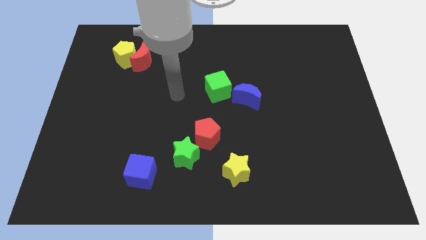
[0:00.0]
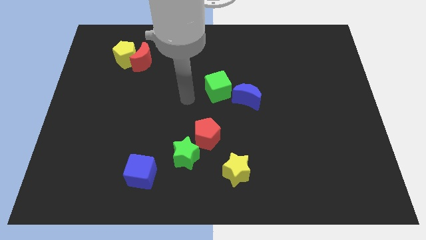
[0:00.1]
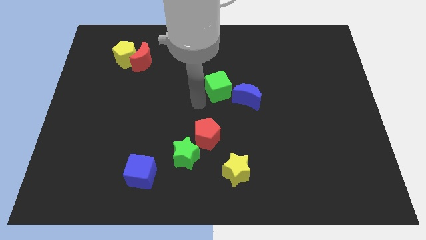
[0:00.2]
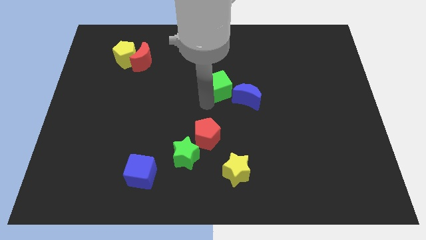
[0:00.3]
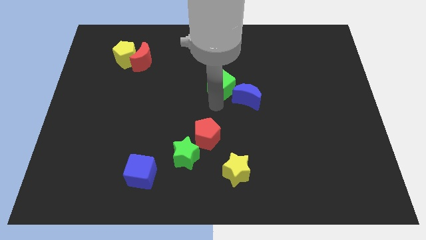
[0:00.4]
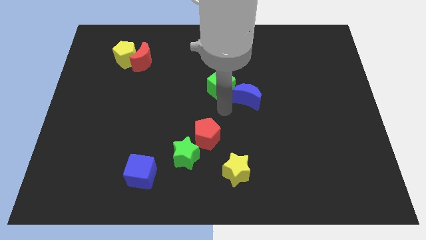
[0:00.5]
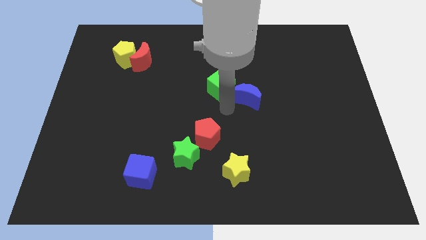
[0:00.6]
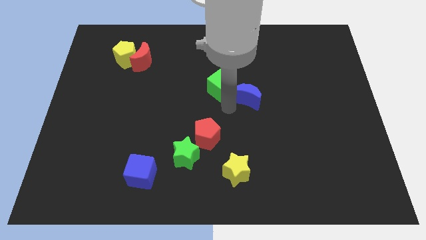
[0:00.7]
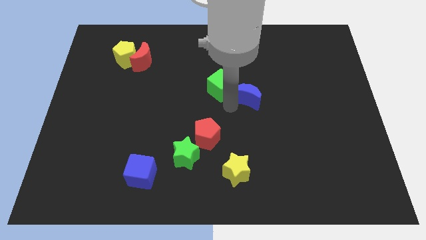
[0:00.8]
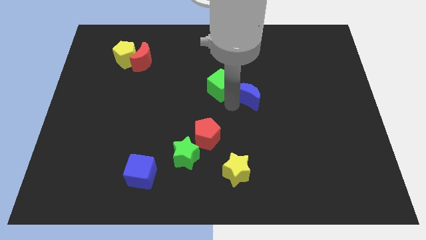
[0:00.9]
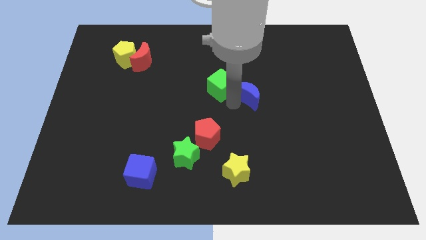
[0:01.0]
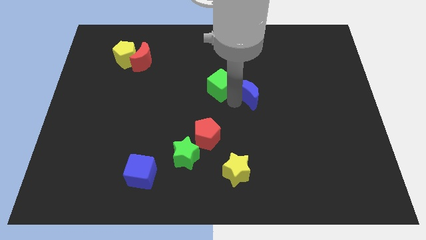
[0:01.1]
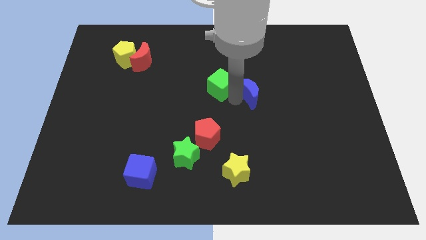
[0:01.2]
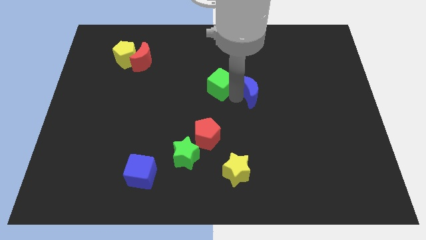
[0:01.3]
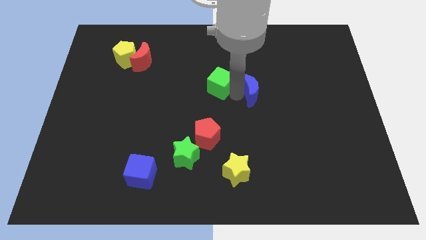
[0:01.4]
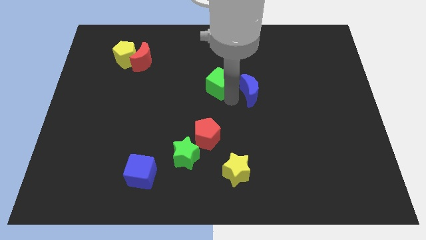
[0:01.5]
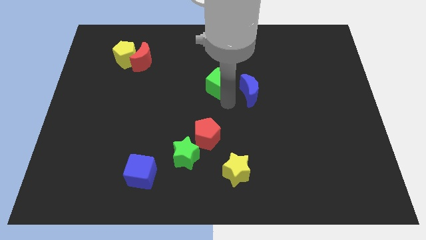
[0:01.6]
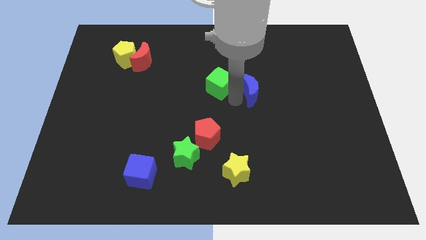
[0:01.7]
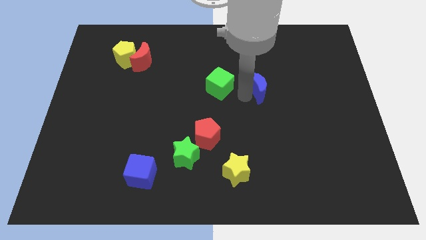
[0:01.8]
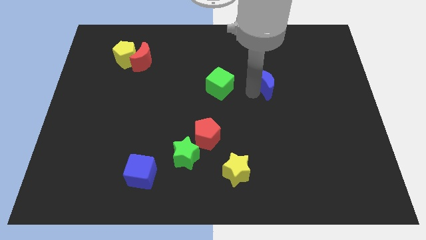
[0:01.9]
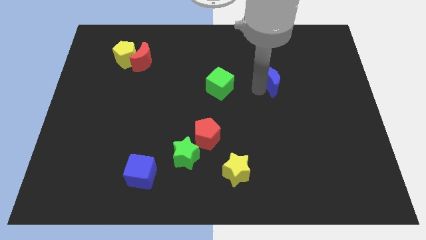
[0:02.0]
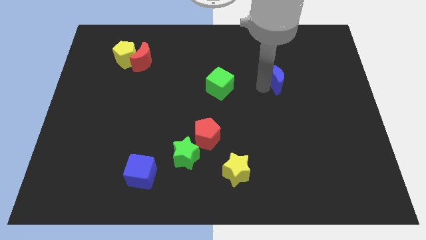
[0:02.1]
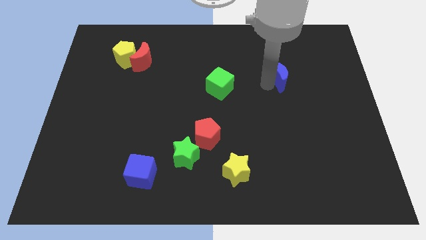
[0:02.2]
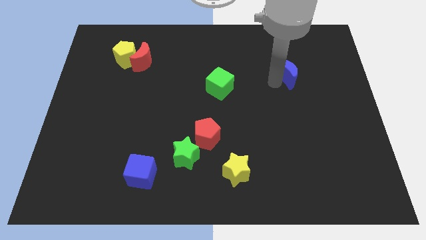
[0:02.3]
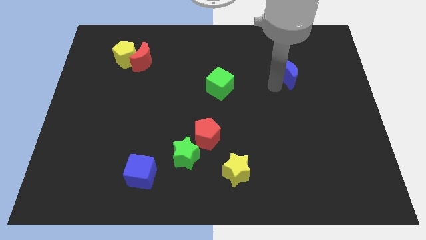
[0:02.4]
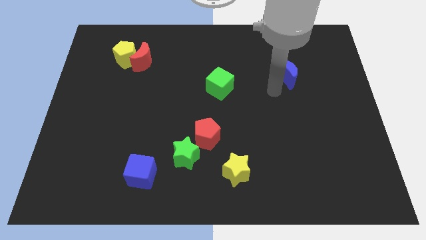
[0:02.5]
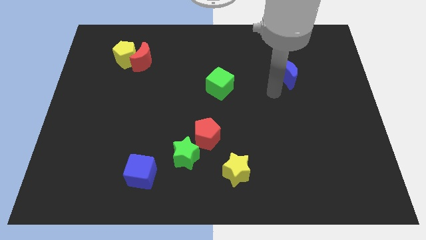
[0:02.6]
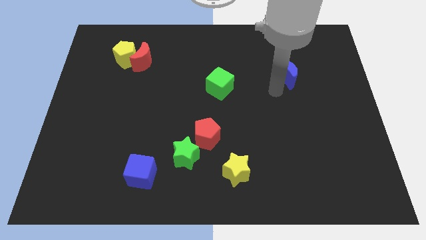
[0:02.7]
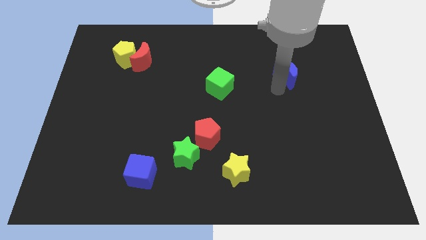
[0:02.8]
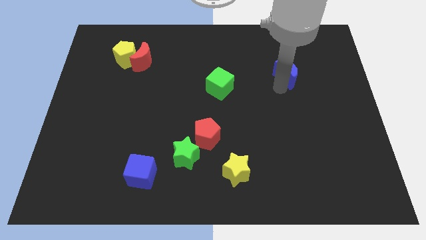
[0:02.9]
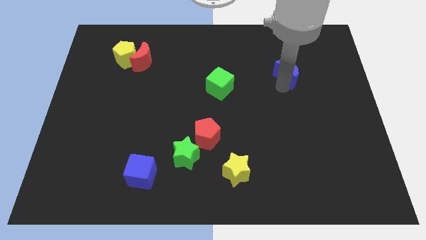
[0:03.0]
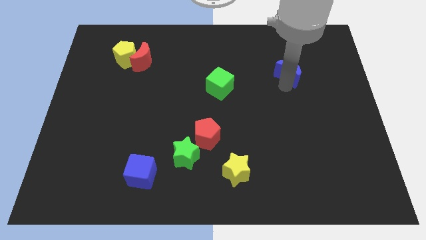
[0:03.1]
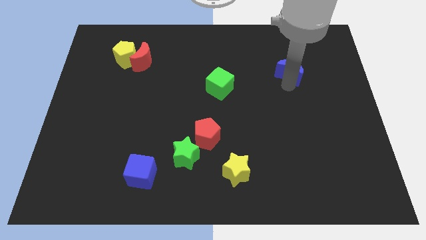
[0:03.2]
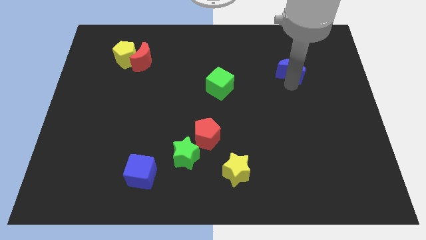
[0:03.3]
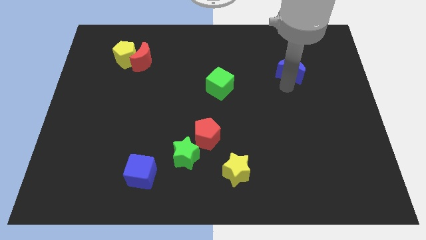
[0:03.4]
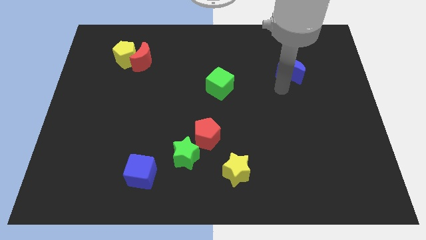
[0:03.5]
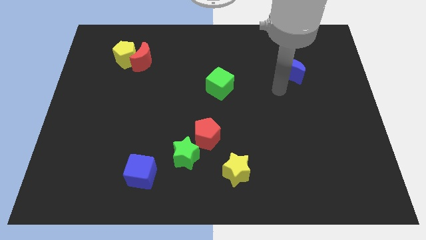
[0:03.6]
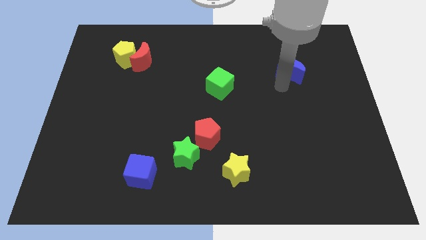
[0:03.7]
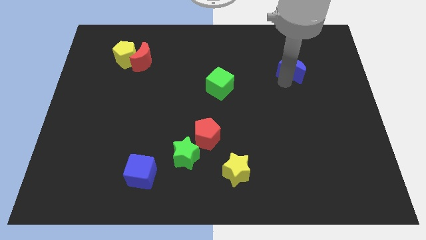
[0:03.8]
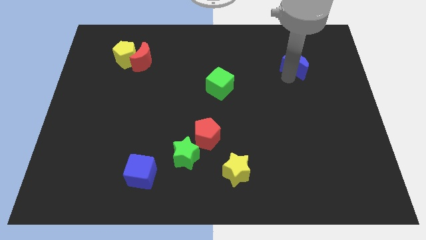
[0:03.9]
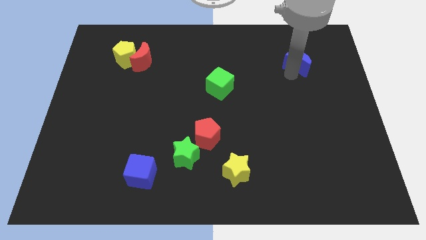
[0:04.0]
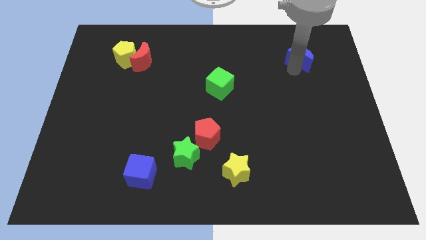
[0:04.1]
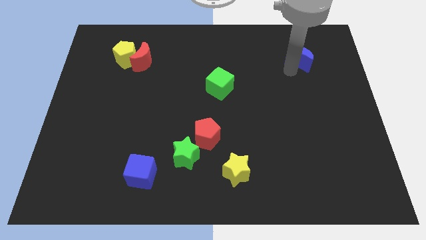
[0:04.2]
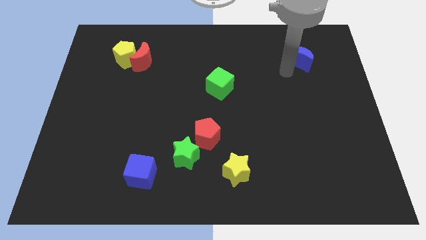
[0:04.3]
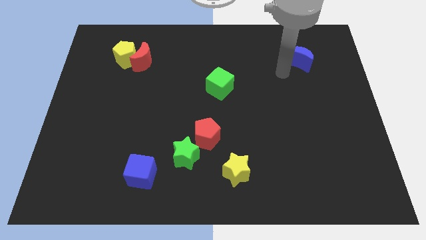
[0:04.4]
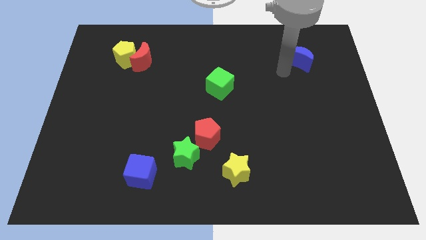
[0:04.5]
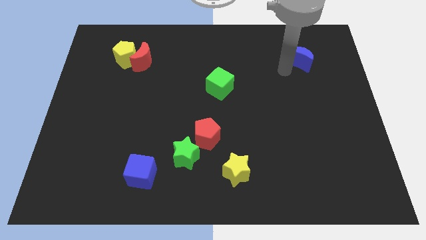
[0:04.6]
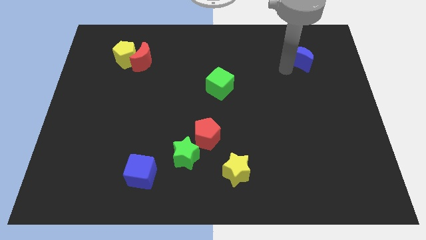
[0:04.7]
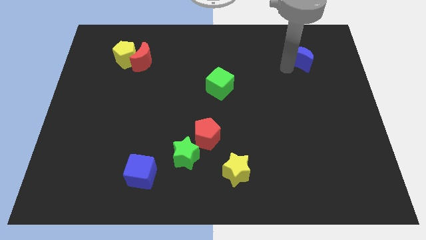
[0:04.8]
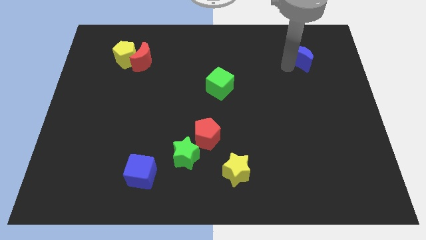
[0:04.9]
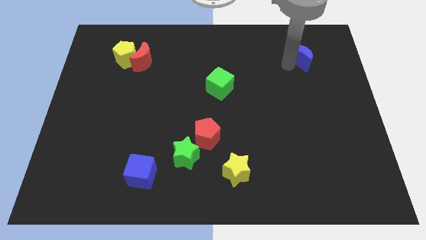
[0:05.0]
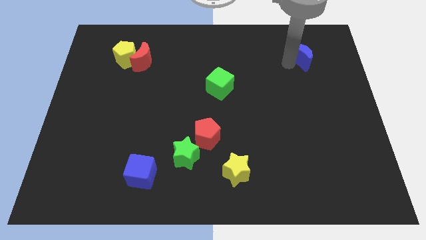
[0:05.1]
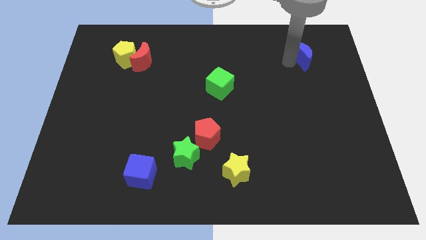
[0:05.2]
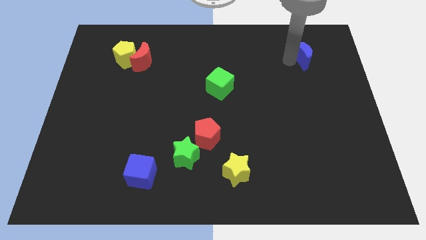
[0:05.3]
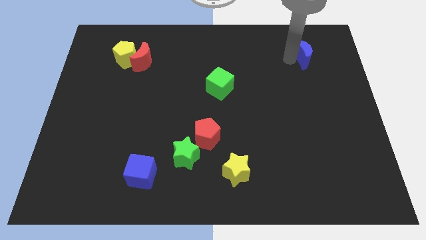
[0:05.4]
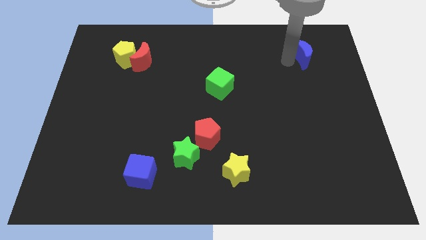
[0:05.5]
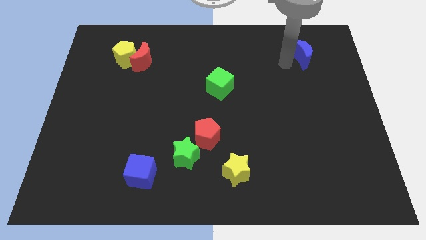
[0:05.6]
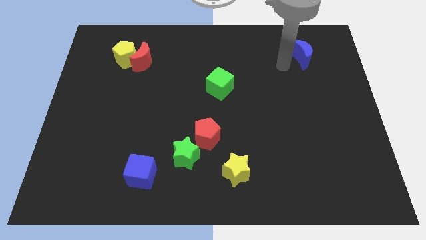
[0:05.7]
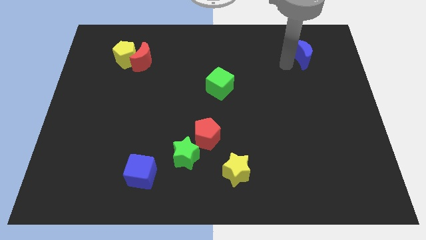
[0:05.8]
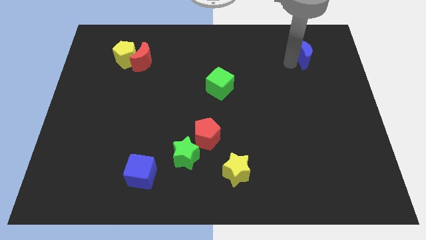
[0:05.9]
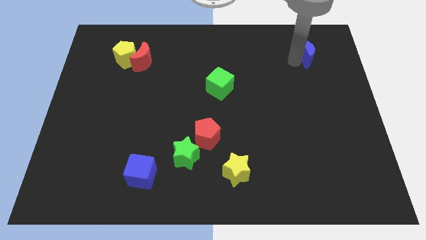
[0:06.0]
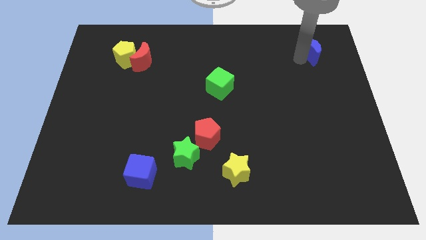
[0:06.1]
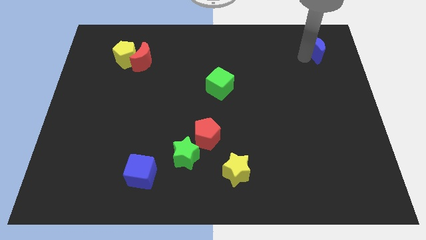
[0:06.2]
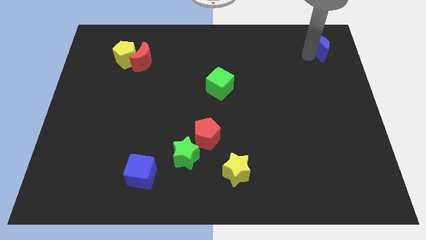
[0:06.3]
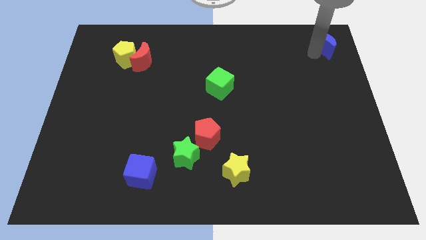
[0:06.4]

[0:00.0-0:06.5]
push the blue moon to the top right corner

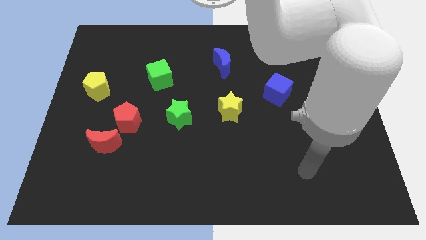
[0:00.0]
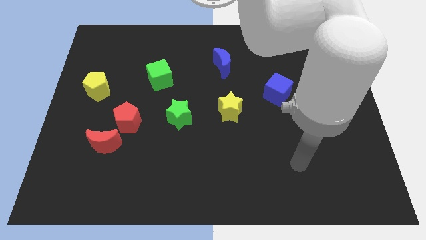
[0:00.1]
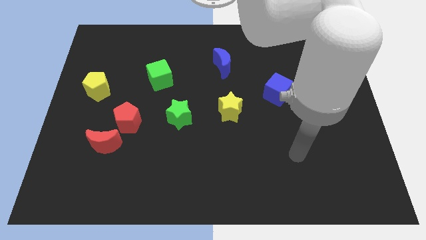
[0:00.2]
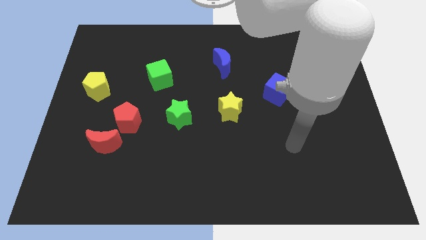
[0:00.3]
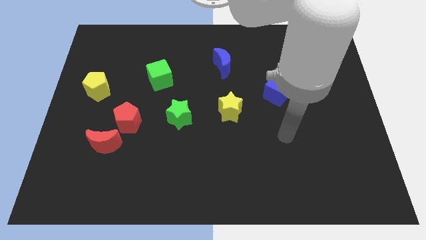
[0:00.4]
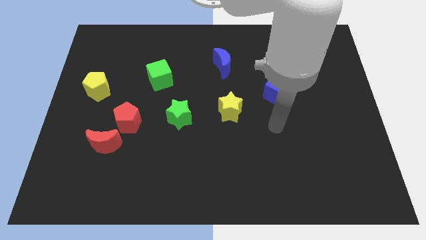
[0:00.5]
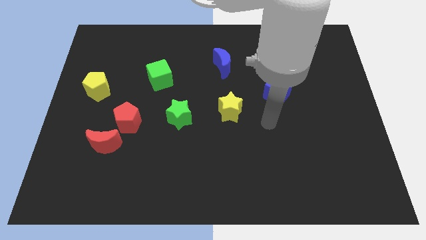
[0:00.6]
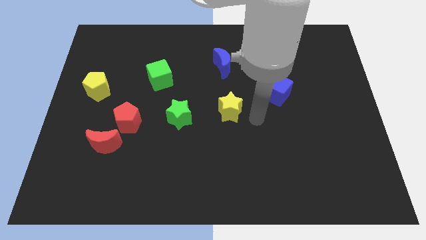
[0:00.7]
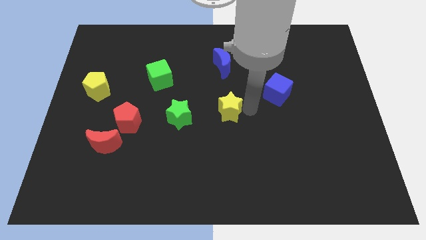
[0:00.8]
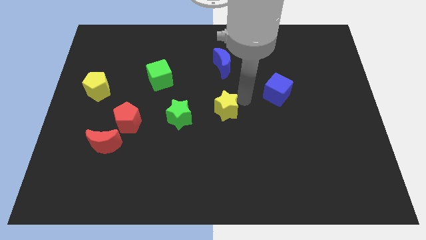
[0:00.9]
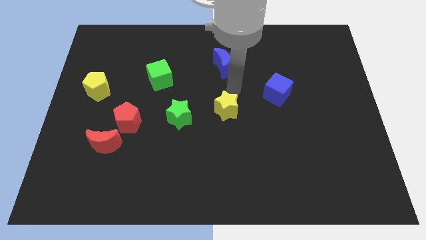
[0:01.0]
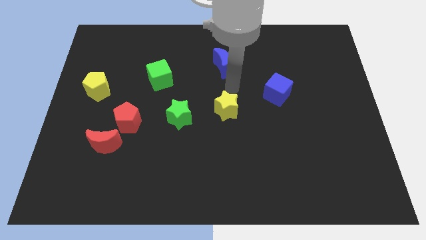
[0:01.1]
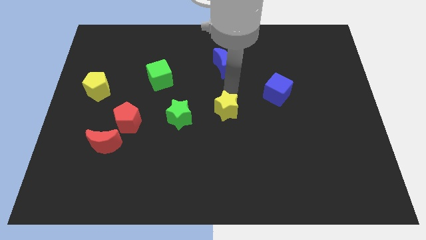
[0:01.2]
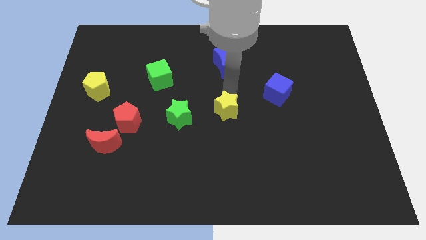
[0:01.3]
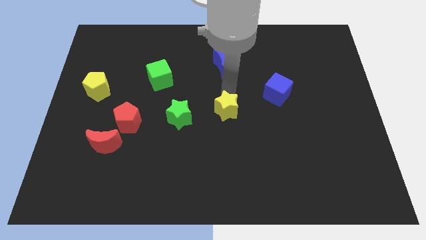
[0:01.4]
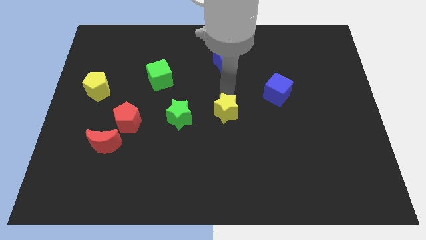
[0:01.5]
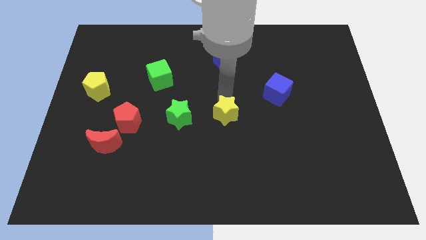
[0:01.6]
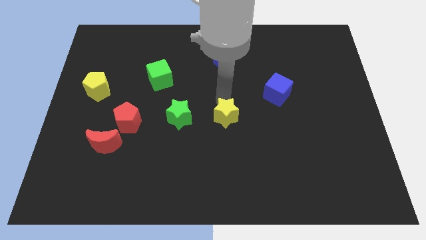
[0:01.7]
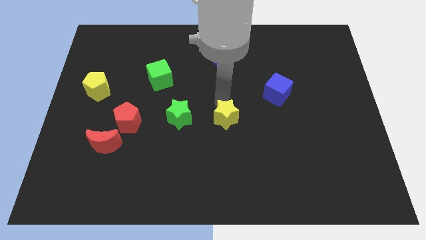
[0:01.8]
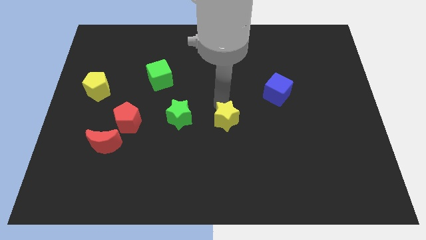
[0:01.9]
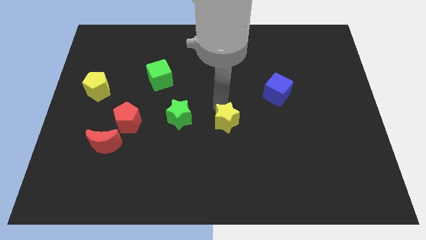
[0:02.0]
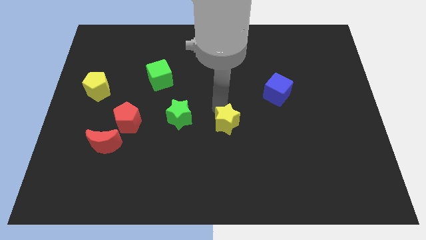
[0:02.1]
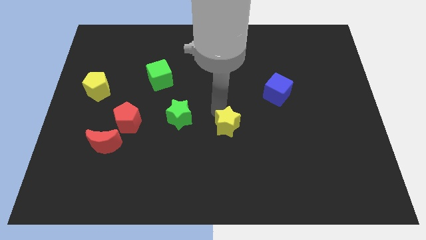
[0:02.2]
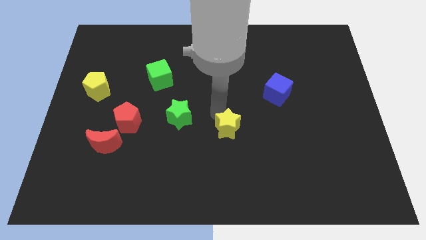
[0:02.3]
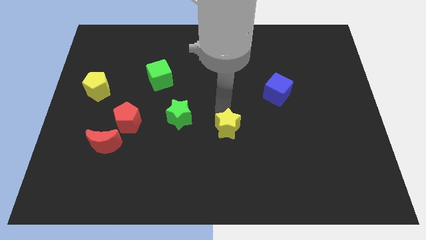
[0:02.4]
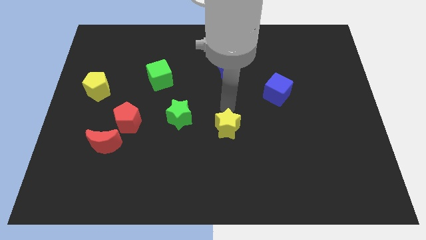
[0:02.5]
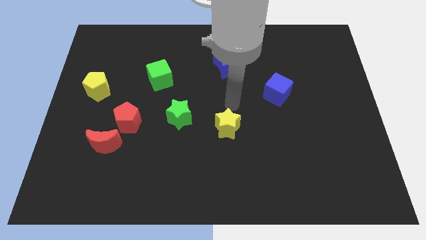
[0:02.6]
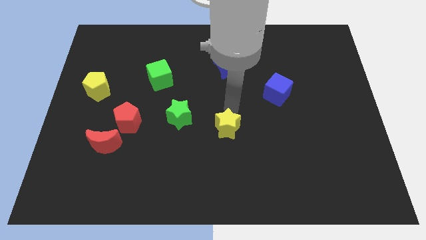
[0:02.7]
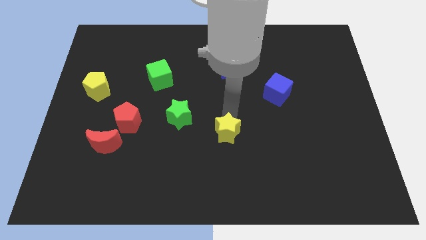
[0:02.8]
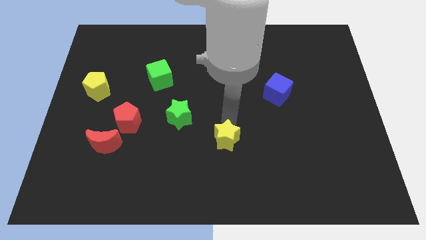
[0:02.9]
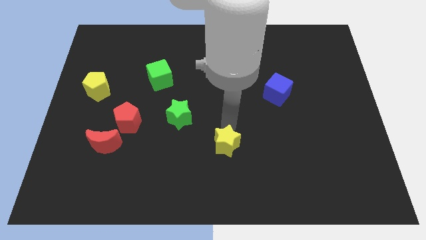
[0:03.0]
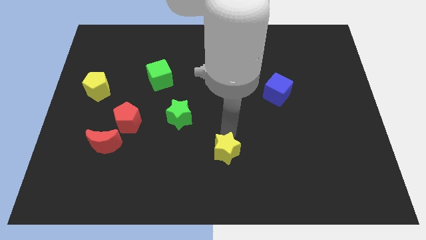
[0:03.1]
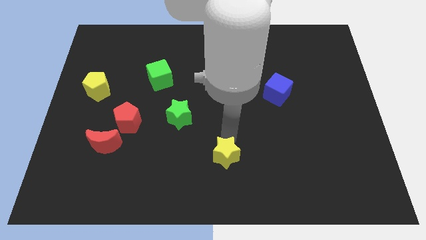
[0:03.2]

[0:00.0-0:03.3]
slide the yellow star to the bottom side
